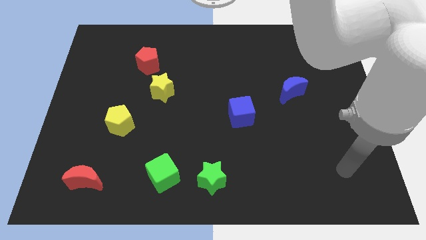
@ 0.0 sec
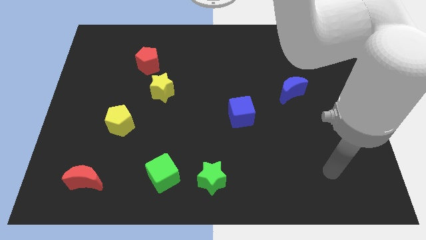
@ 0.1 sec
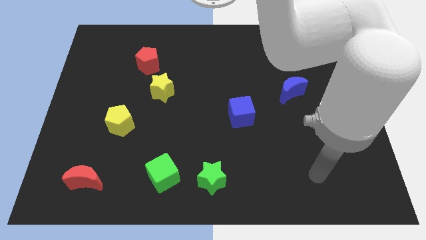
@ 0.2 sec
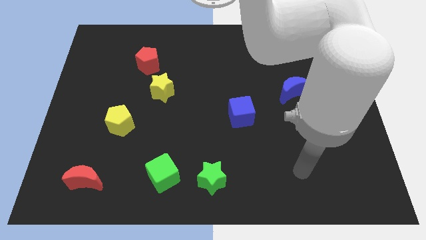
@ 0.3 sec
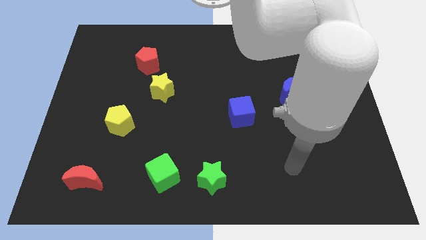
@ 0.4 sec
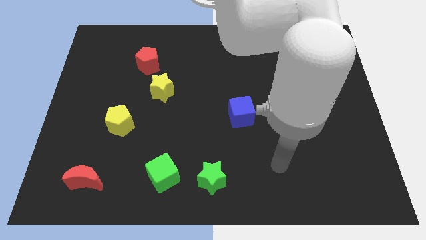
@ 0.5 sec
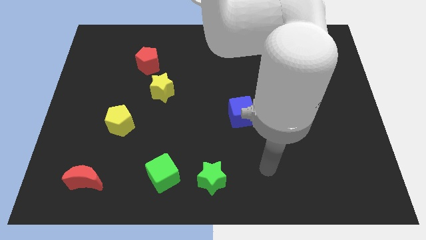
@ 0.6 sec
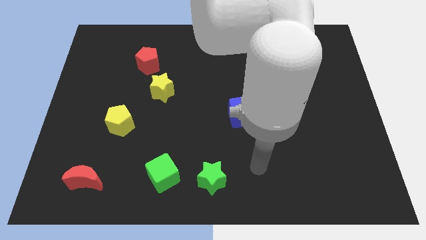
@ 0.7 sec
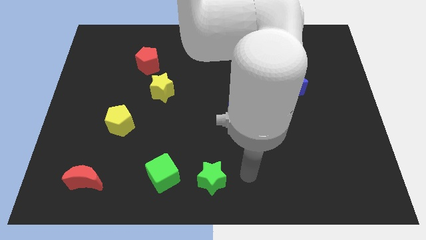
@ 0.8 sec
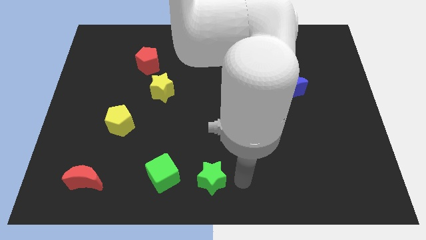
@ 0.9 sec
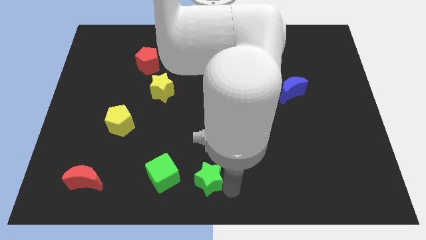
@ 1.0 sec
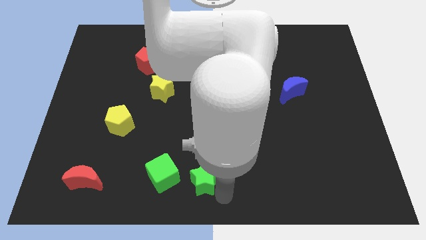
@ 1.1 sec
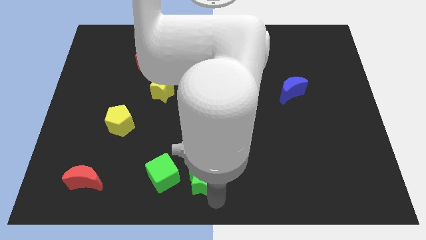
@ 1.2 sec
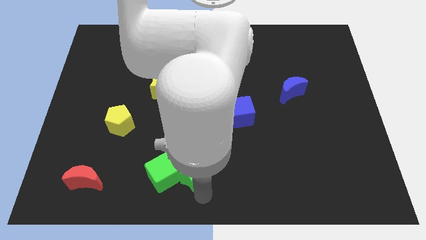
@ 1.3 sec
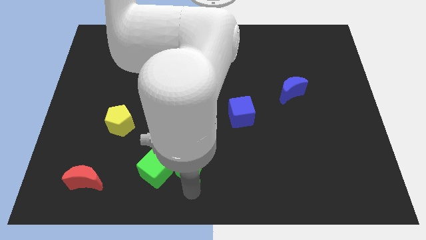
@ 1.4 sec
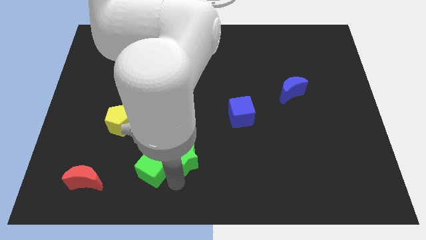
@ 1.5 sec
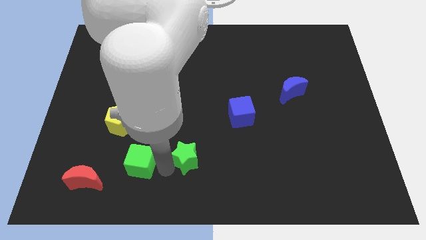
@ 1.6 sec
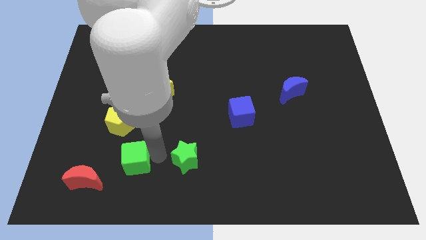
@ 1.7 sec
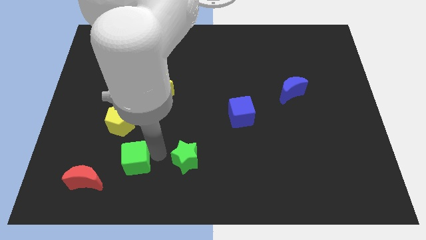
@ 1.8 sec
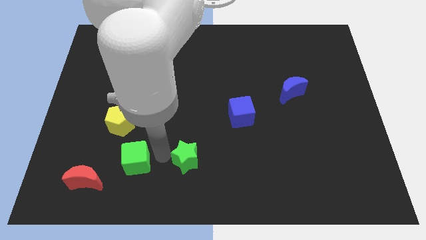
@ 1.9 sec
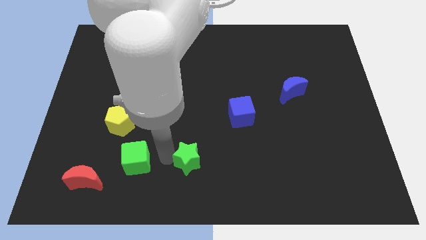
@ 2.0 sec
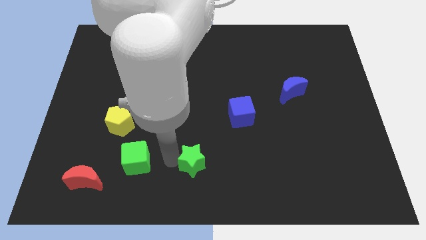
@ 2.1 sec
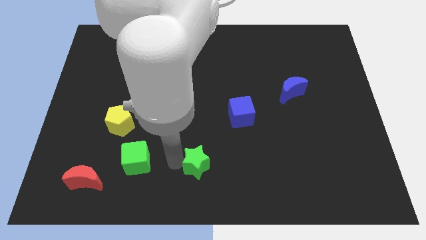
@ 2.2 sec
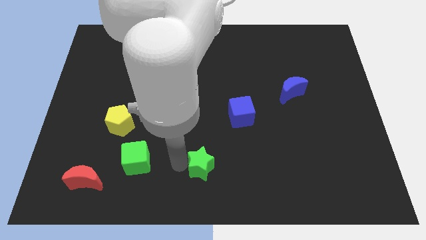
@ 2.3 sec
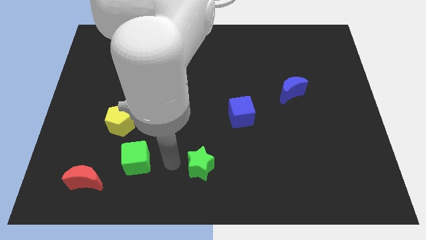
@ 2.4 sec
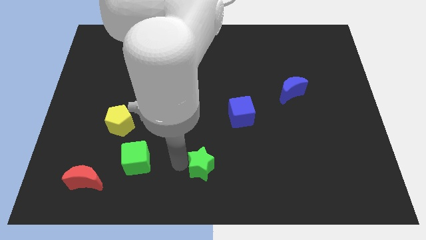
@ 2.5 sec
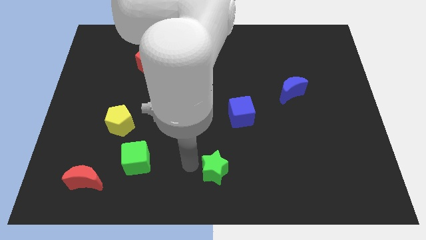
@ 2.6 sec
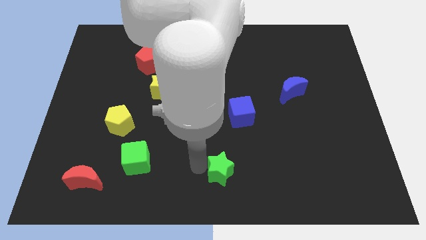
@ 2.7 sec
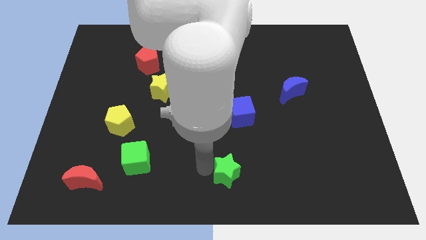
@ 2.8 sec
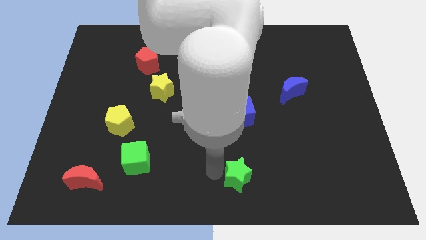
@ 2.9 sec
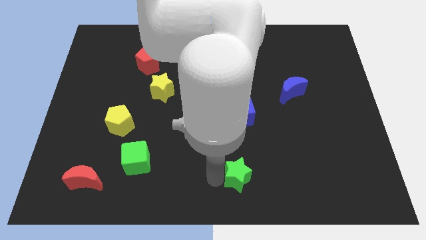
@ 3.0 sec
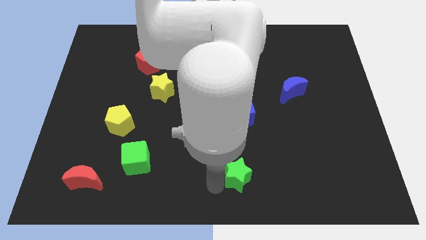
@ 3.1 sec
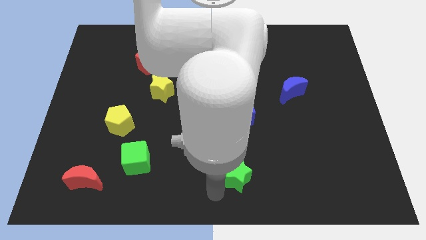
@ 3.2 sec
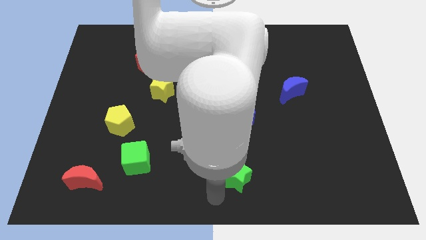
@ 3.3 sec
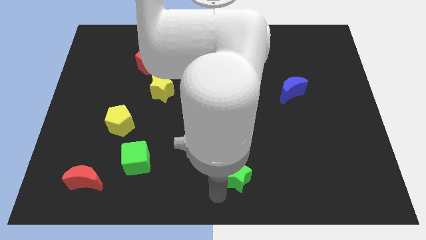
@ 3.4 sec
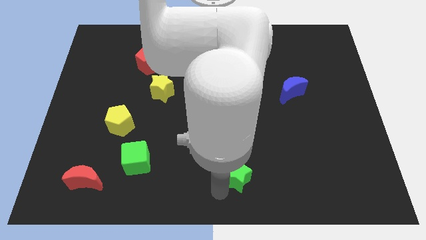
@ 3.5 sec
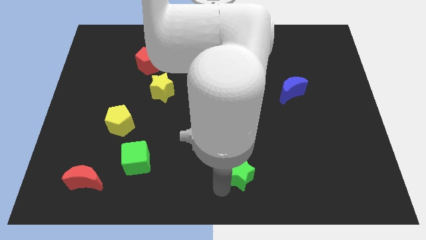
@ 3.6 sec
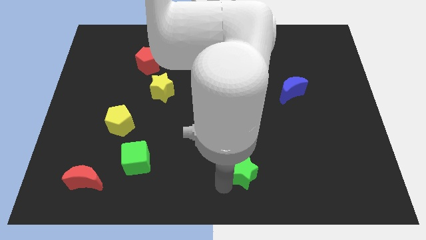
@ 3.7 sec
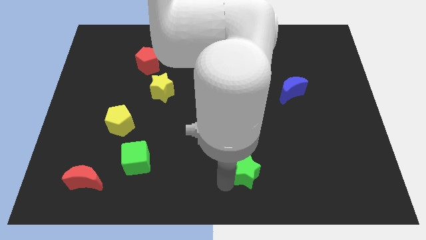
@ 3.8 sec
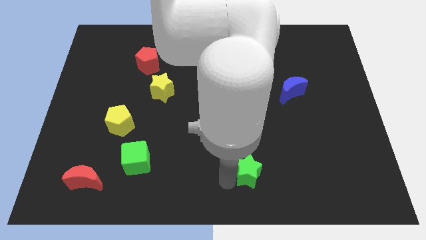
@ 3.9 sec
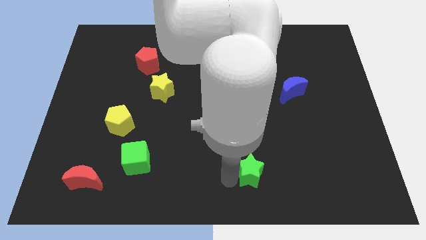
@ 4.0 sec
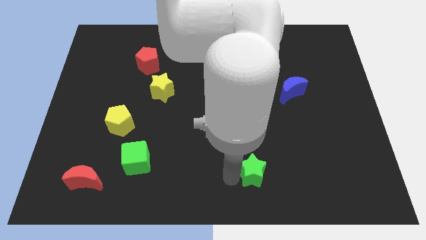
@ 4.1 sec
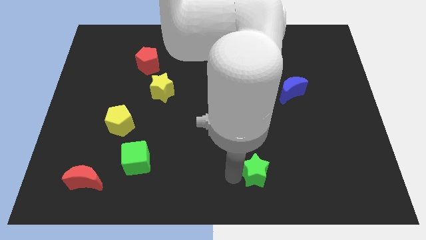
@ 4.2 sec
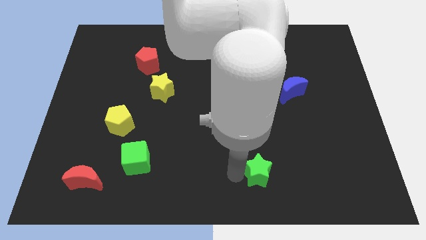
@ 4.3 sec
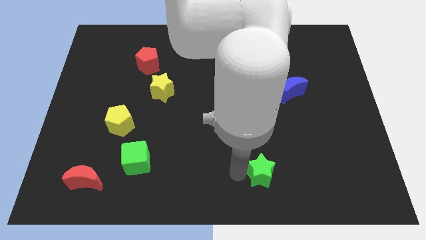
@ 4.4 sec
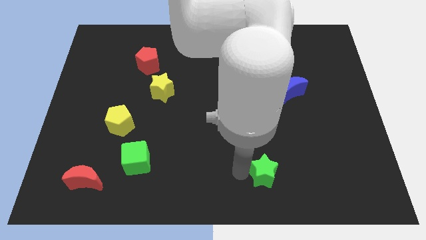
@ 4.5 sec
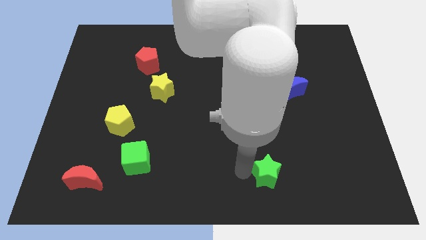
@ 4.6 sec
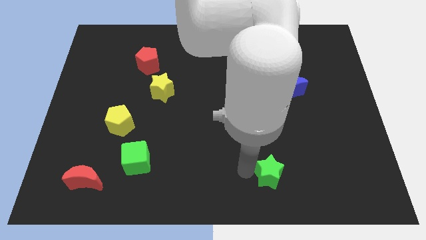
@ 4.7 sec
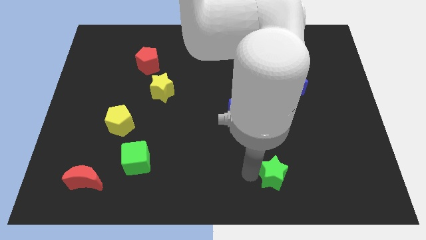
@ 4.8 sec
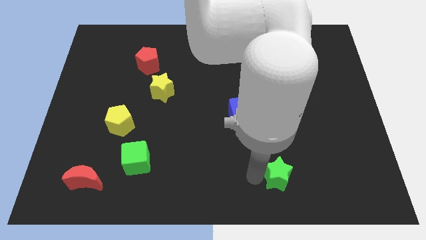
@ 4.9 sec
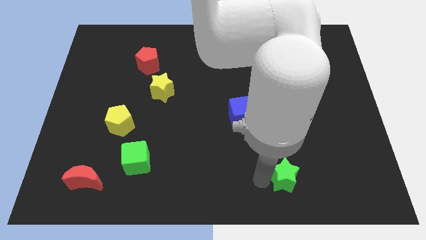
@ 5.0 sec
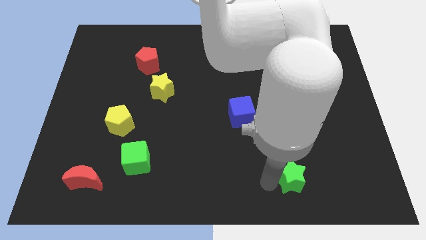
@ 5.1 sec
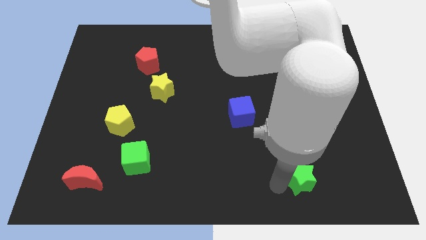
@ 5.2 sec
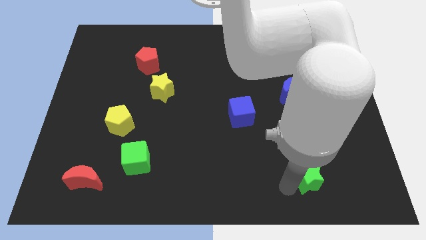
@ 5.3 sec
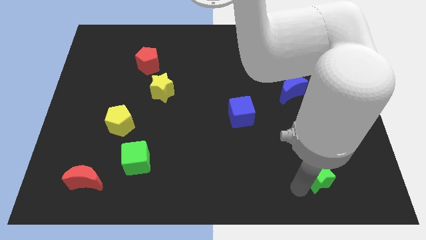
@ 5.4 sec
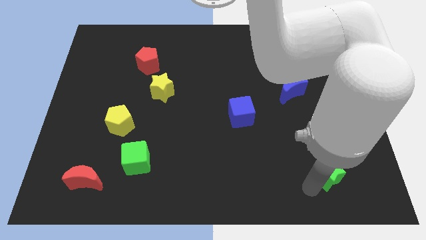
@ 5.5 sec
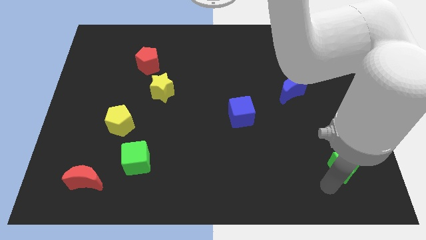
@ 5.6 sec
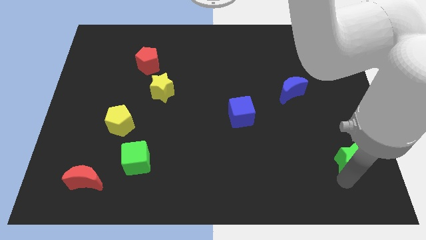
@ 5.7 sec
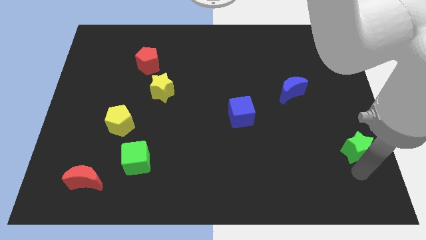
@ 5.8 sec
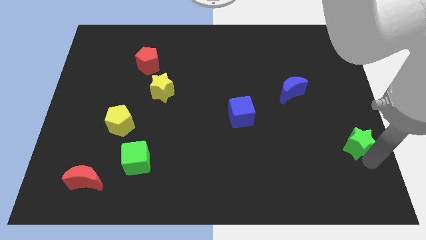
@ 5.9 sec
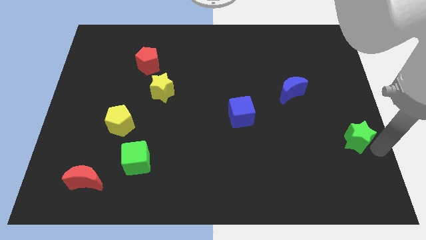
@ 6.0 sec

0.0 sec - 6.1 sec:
slide the green star to the right side
